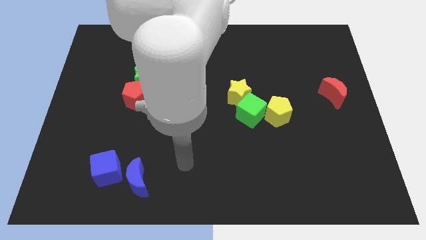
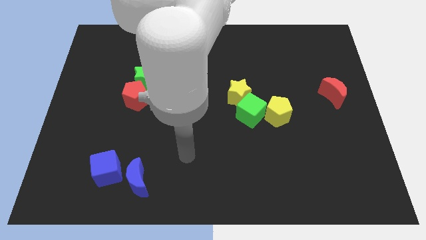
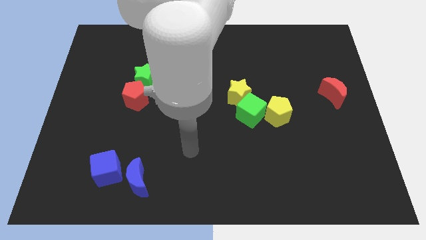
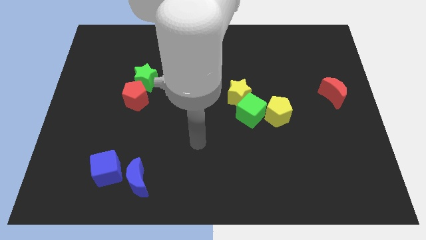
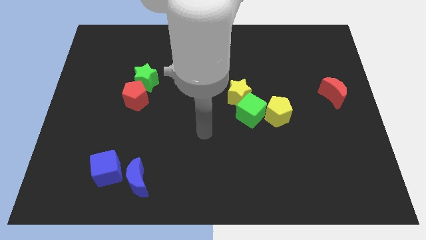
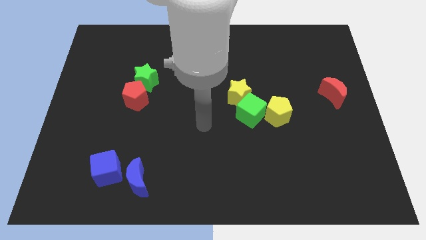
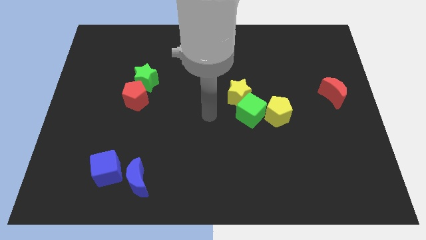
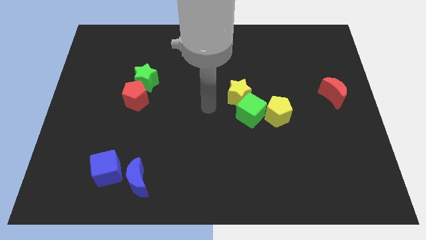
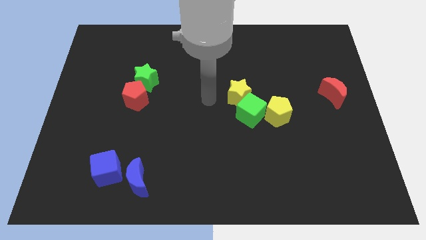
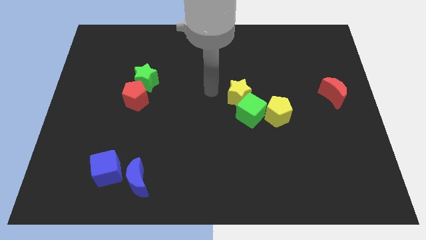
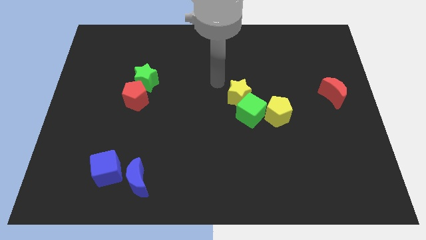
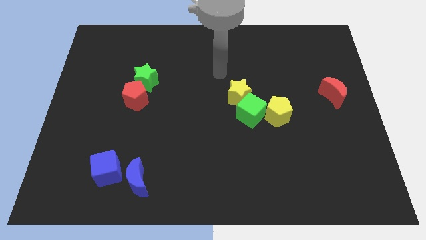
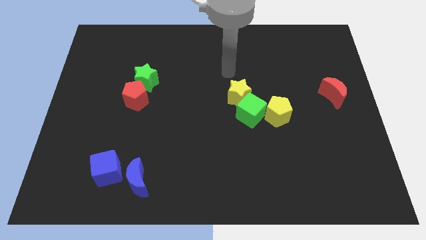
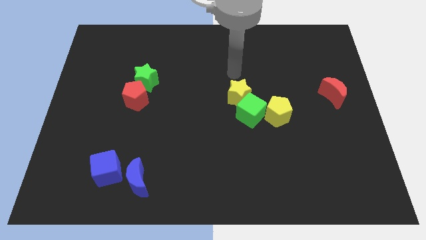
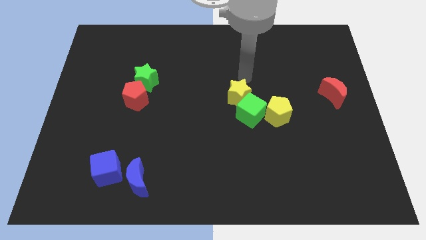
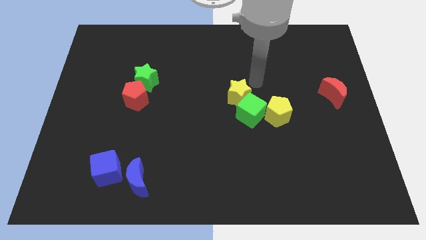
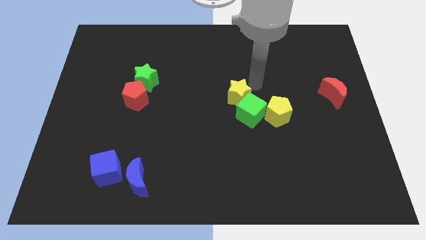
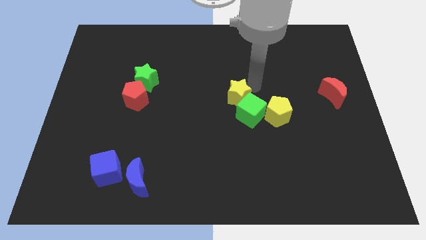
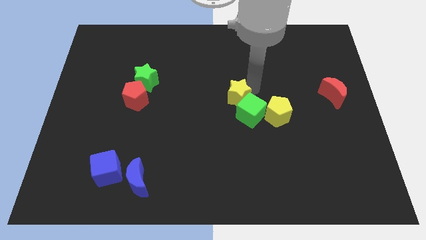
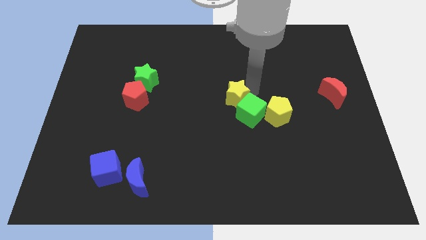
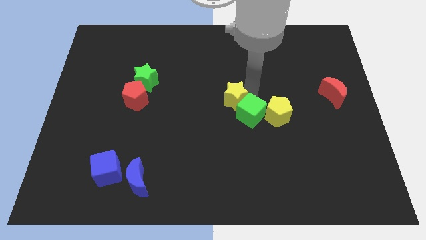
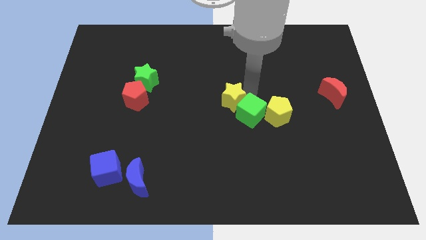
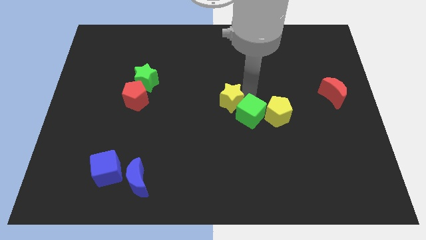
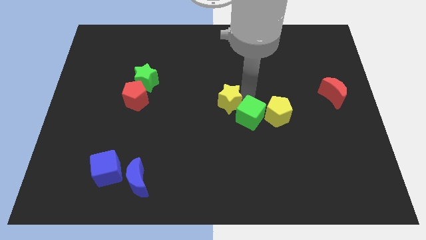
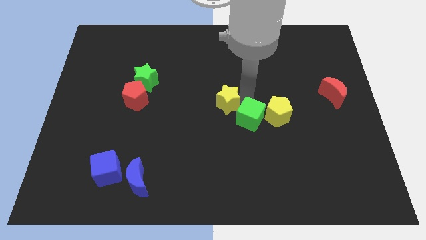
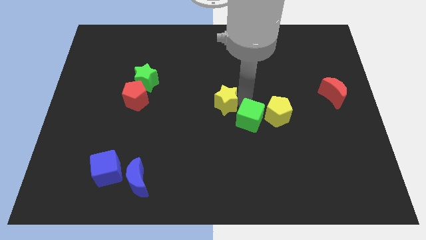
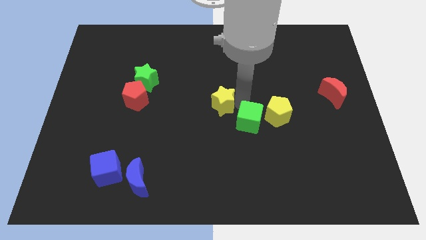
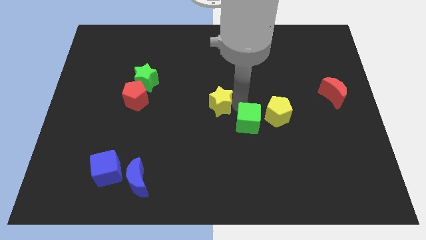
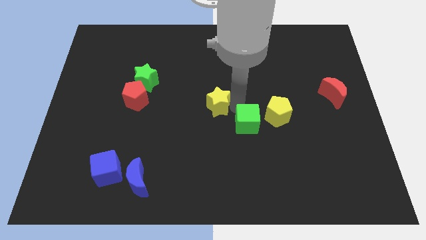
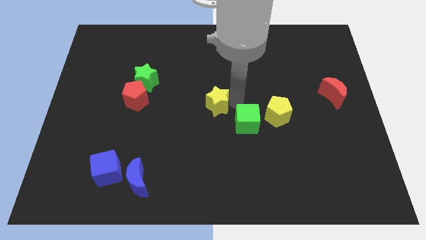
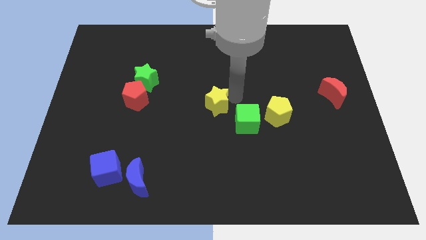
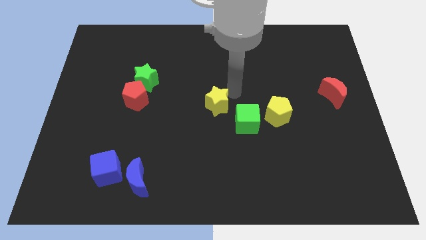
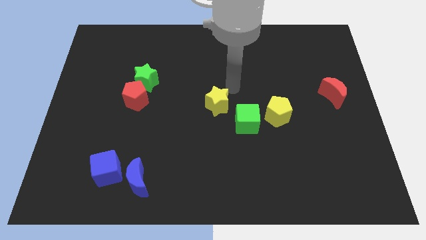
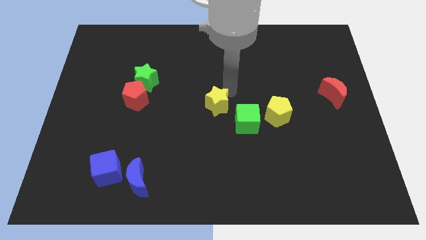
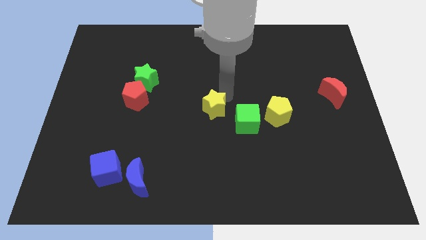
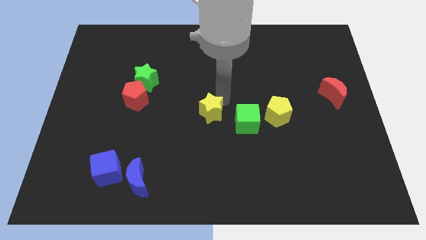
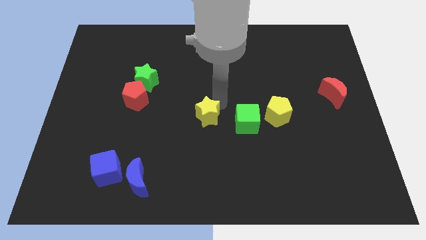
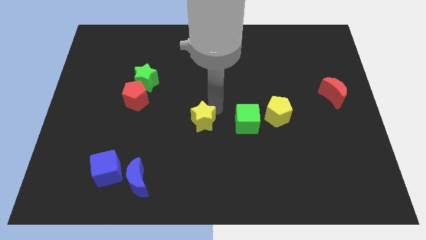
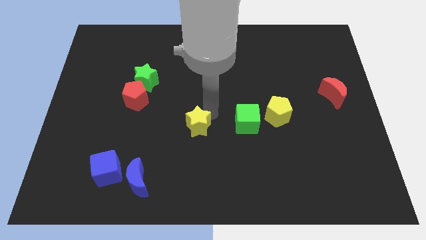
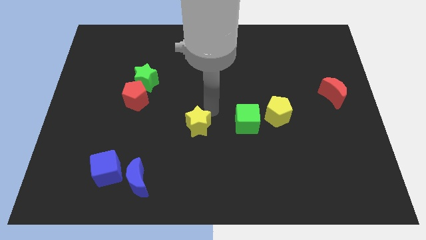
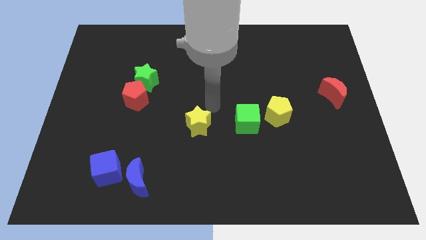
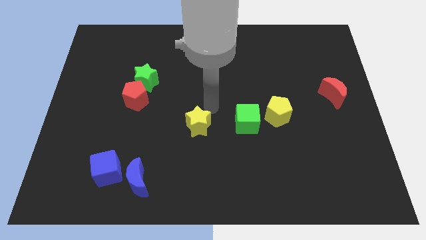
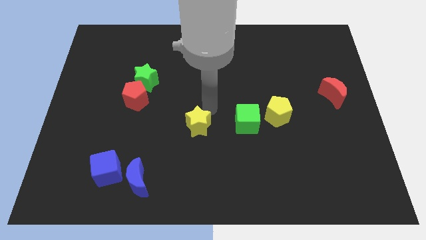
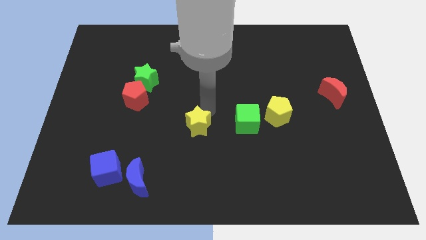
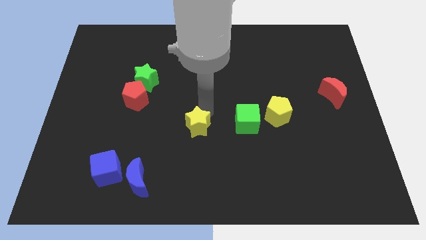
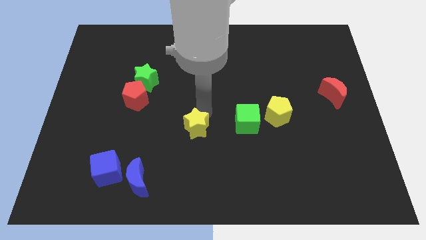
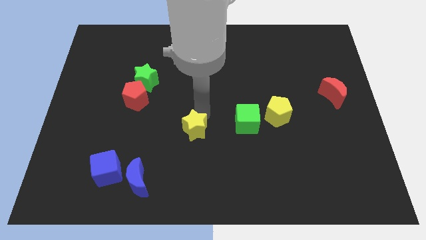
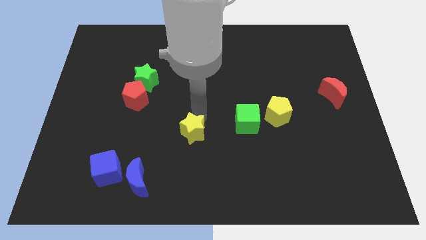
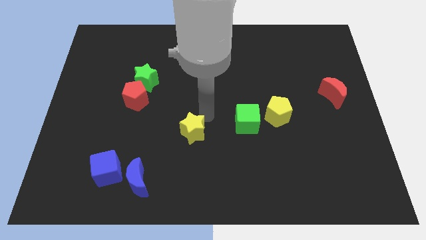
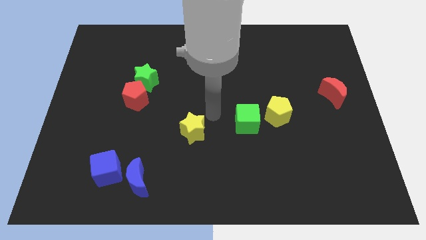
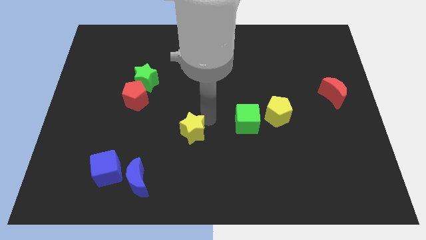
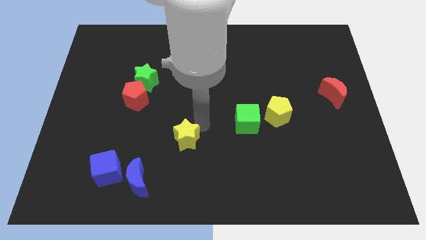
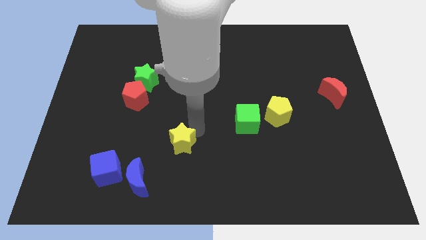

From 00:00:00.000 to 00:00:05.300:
push the yellow star diagonally up and to the right of the blue moon

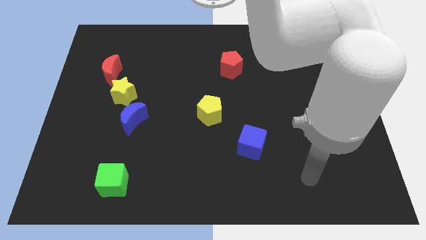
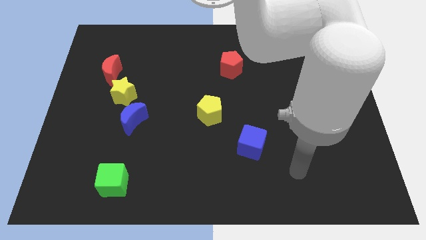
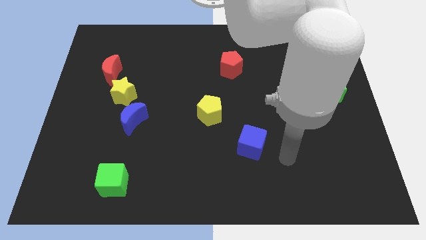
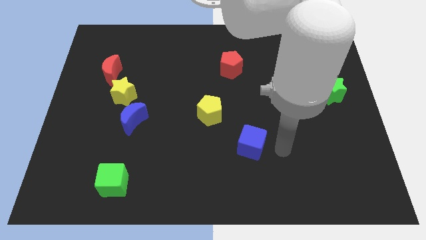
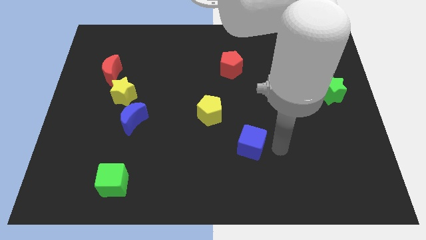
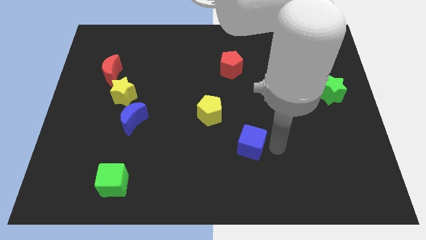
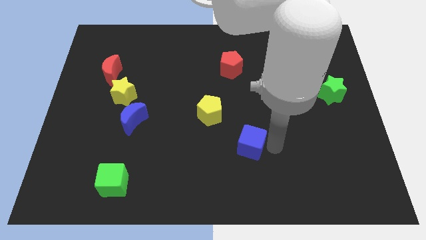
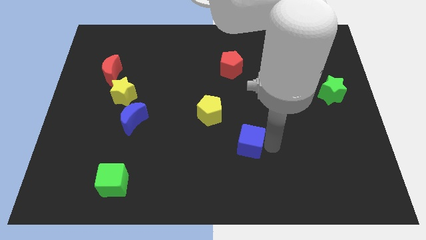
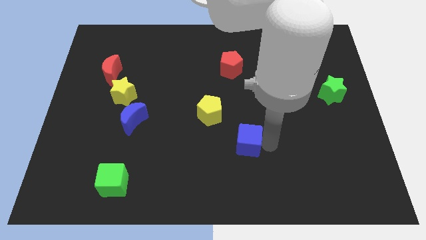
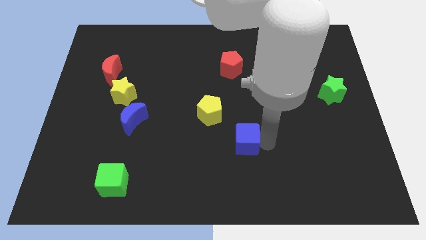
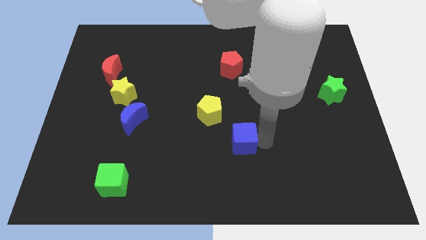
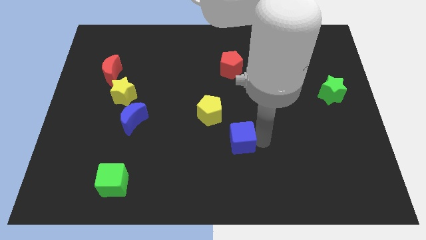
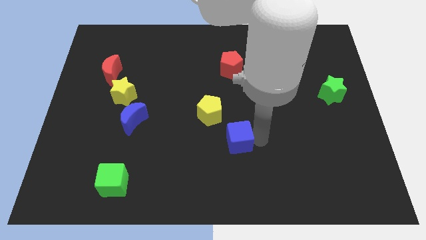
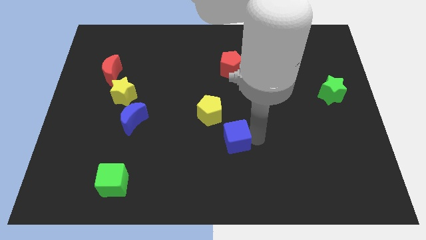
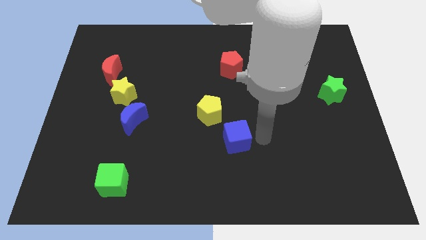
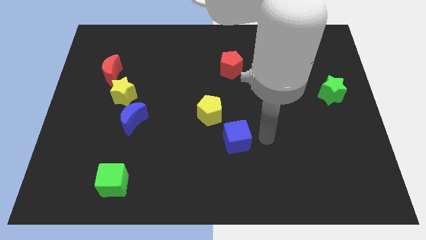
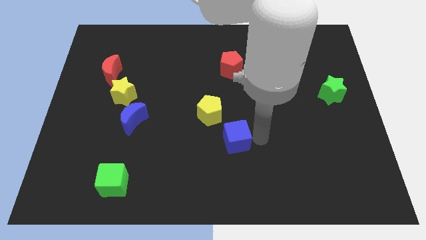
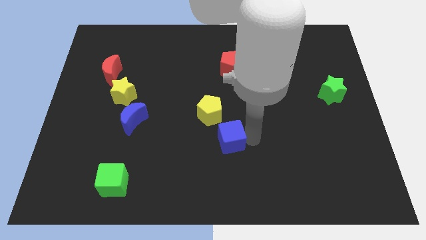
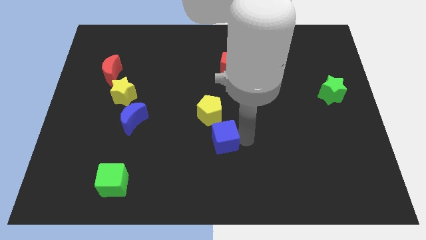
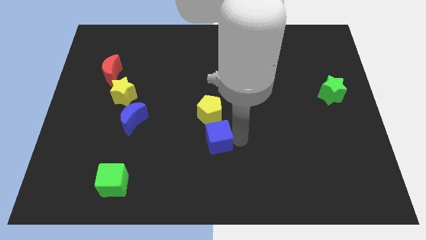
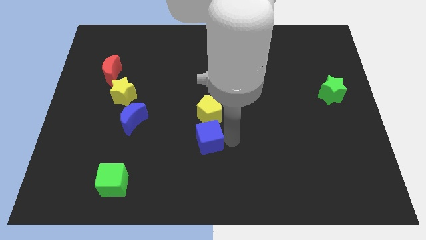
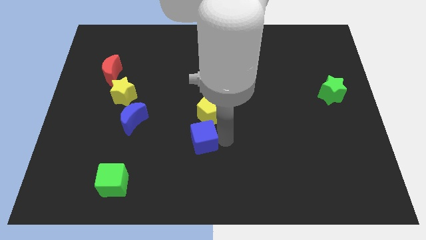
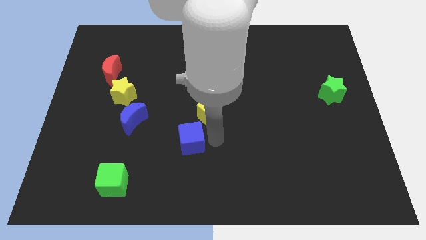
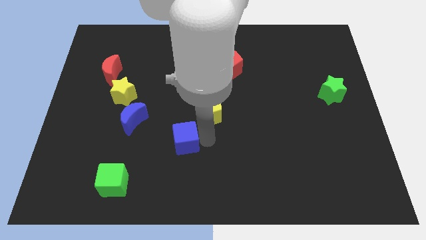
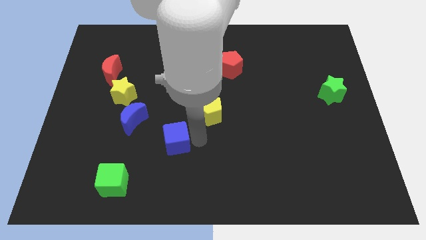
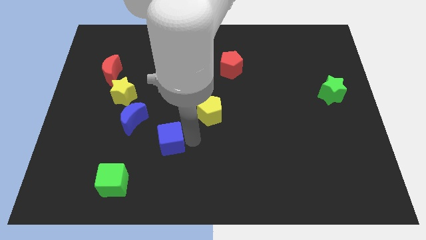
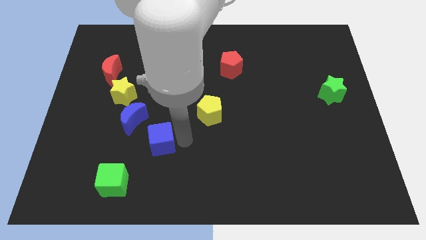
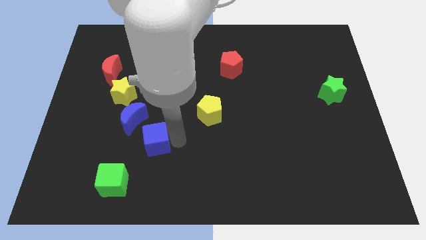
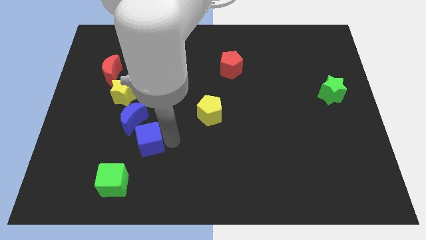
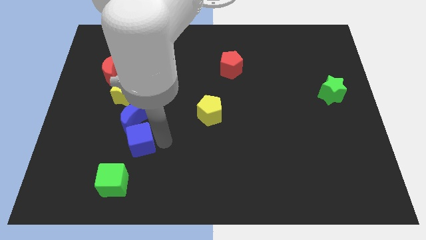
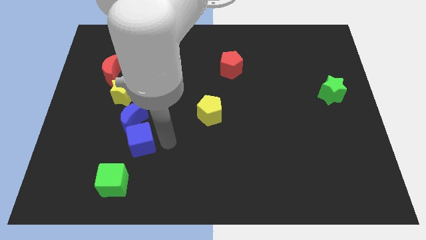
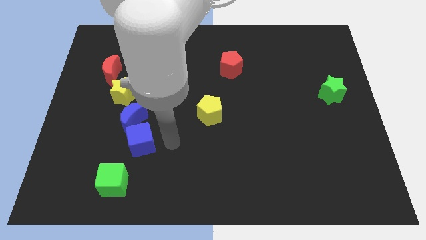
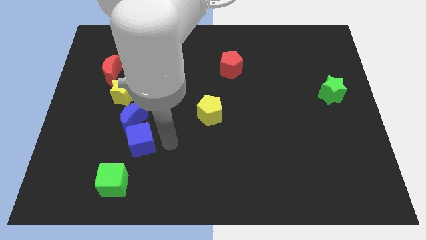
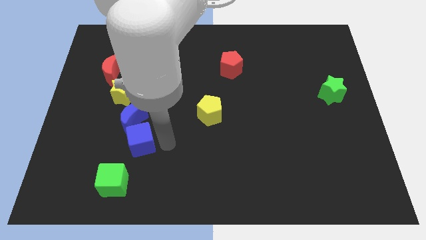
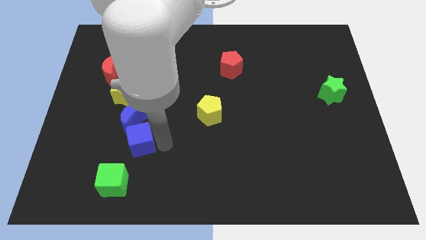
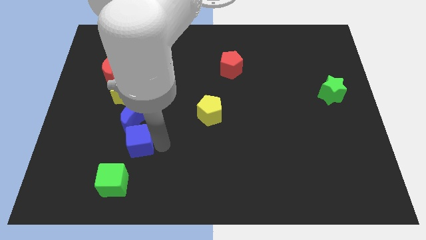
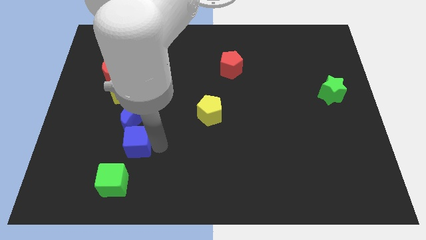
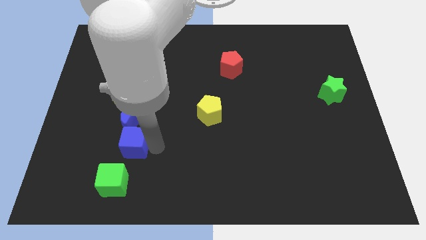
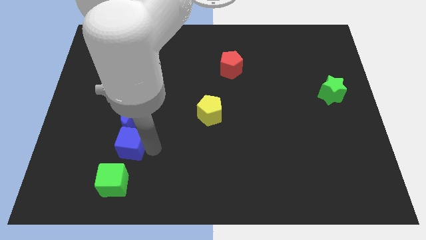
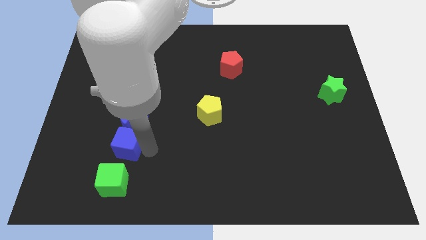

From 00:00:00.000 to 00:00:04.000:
push the blue cube to the bottom left of the blue moon
